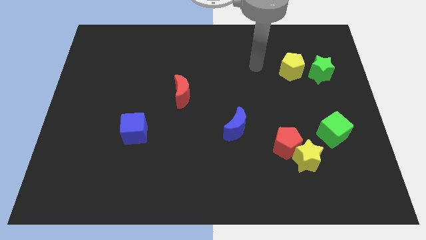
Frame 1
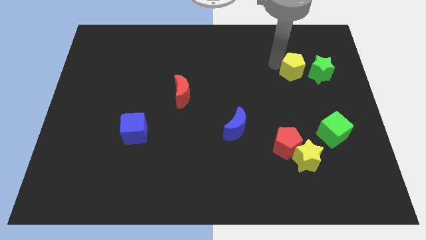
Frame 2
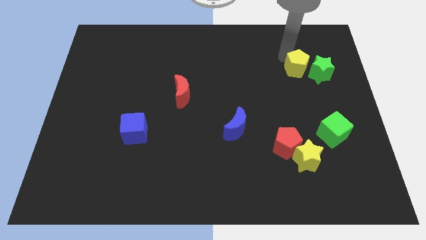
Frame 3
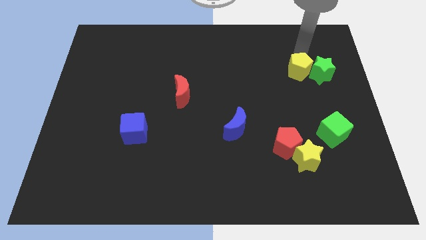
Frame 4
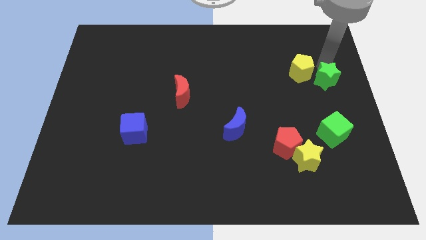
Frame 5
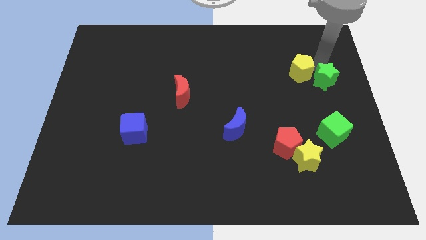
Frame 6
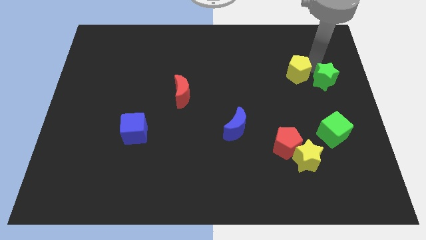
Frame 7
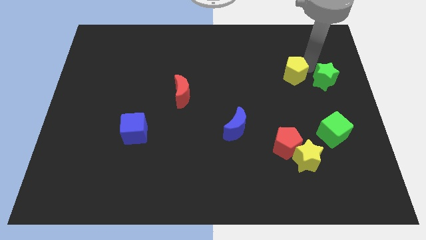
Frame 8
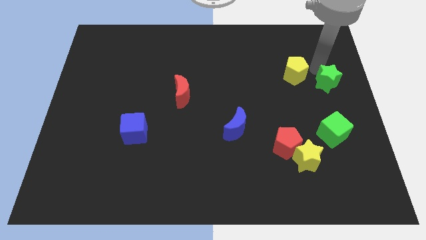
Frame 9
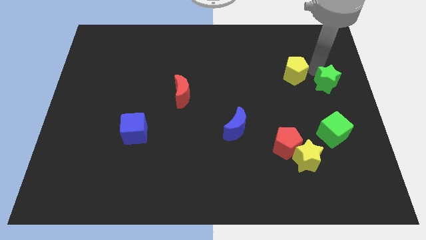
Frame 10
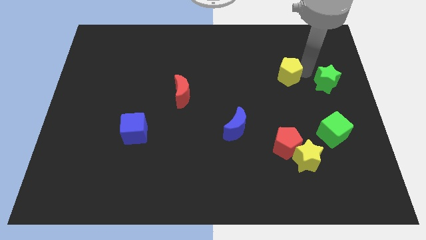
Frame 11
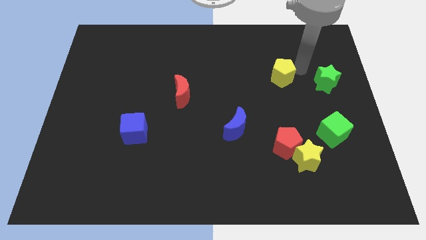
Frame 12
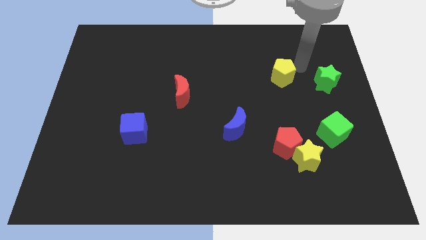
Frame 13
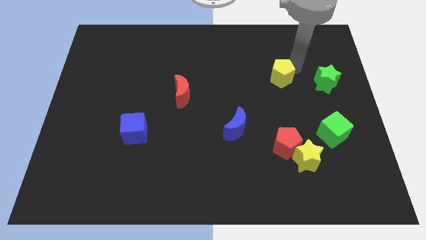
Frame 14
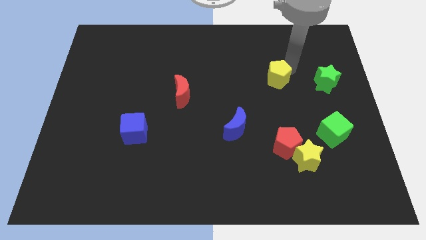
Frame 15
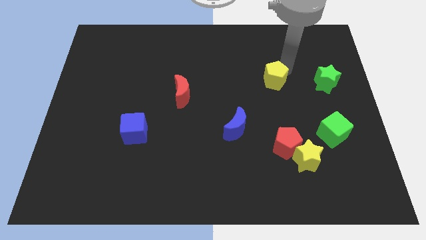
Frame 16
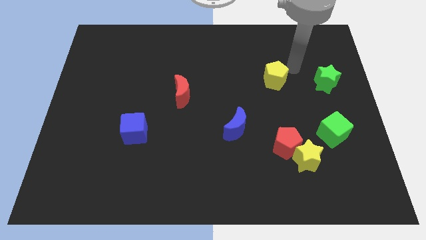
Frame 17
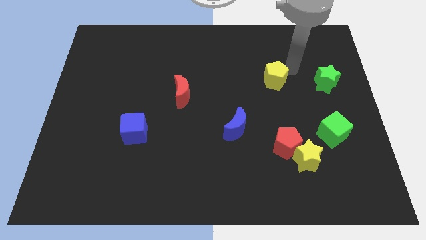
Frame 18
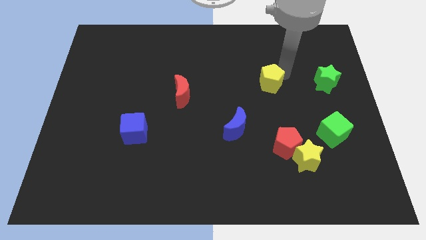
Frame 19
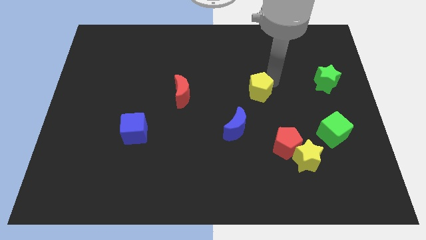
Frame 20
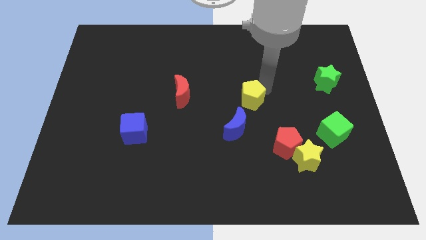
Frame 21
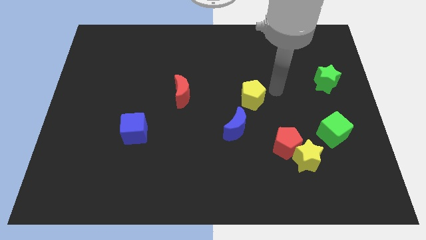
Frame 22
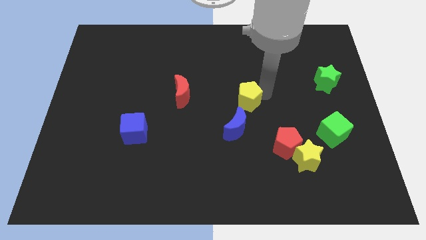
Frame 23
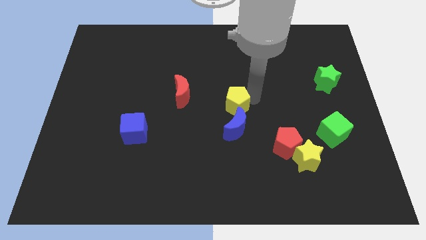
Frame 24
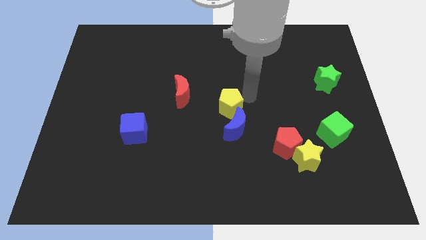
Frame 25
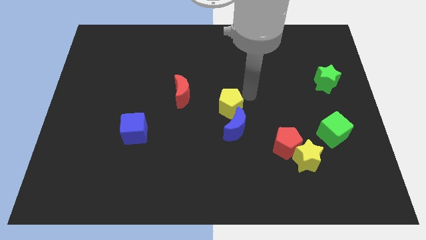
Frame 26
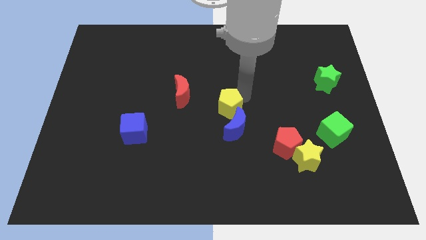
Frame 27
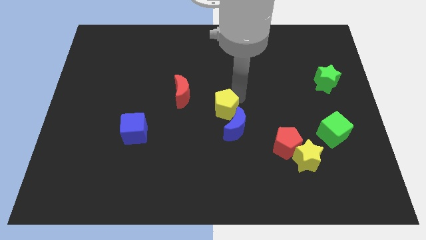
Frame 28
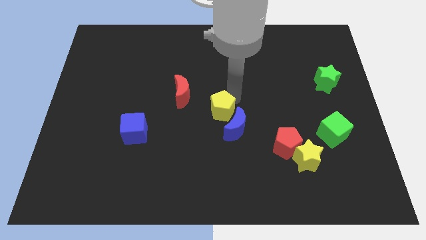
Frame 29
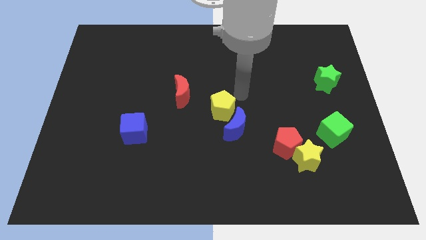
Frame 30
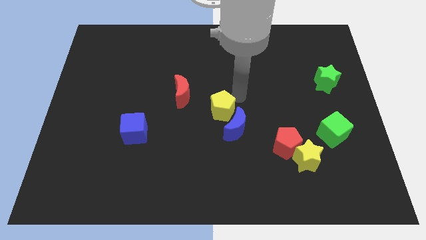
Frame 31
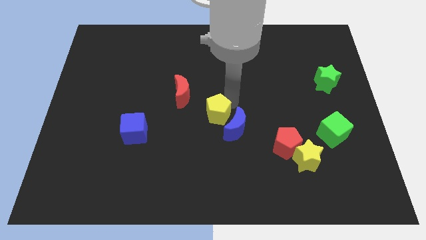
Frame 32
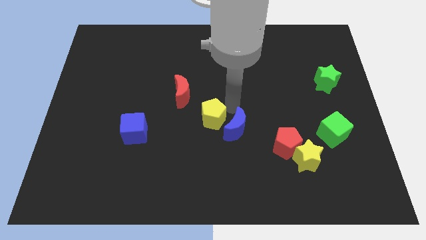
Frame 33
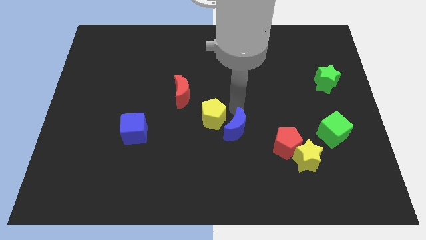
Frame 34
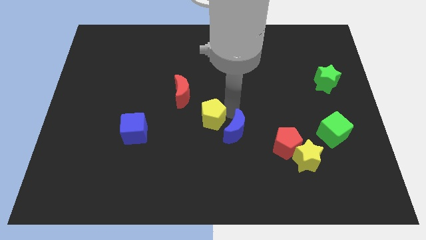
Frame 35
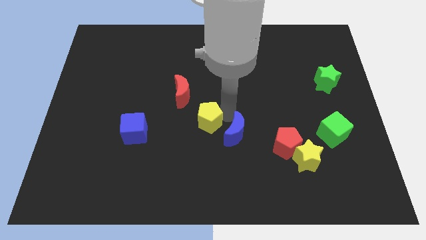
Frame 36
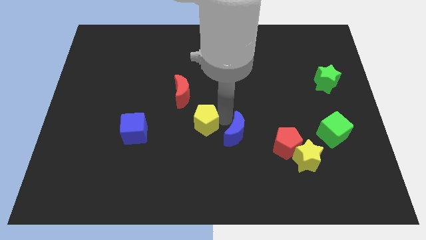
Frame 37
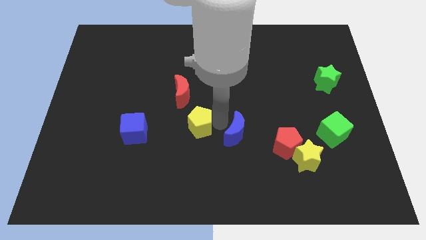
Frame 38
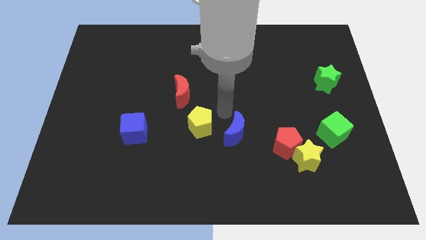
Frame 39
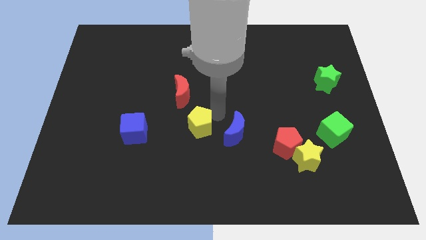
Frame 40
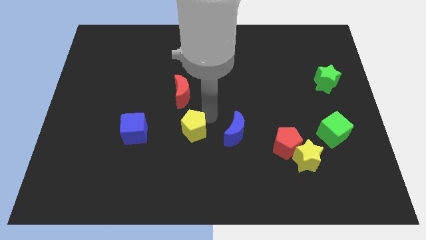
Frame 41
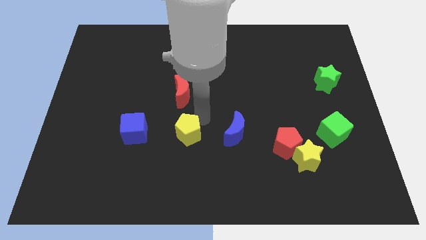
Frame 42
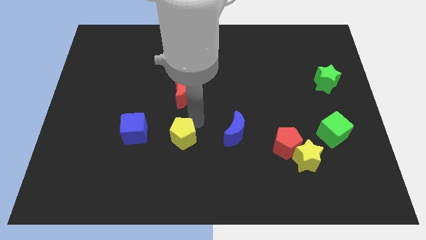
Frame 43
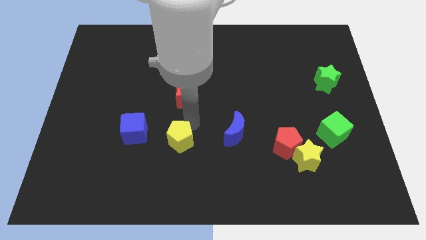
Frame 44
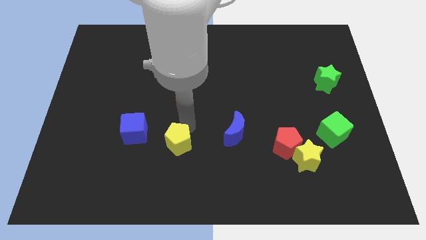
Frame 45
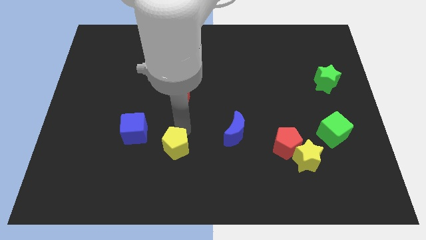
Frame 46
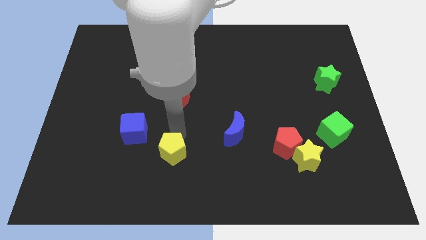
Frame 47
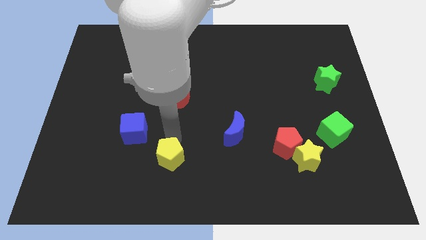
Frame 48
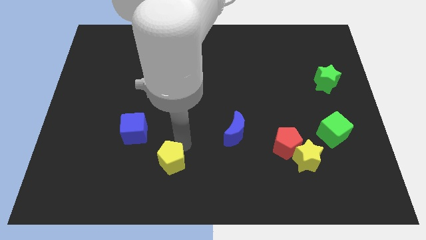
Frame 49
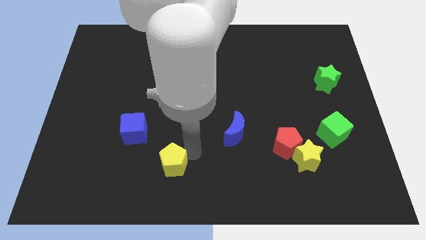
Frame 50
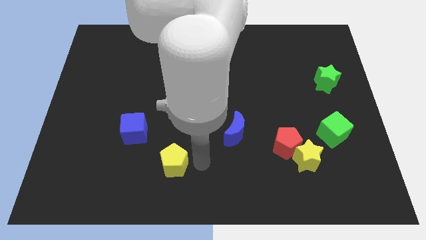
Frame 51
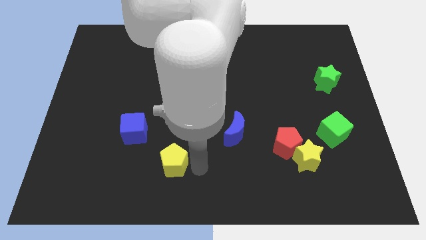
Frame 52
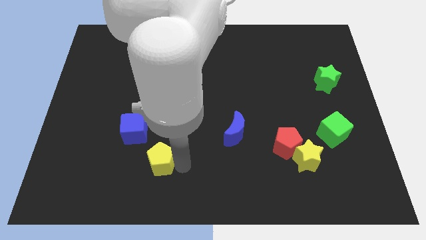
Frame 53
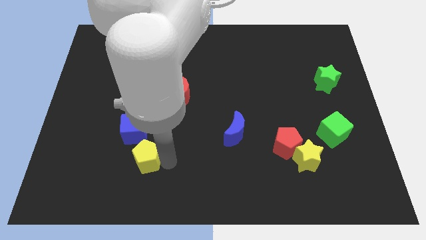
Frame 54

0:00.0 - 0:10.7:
push the yellow pentagon to the bottom of the blue cube

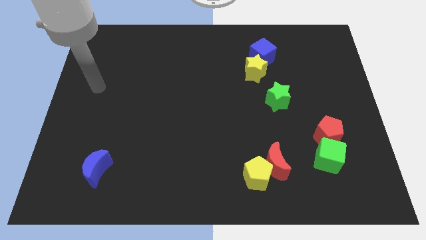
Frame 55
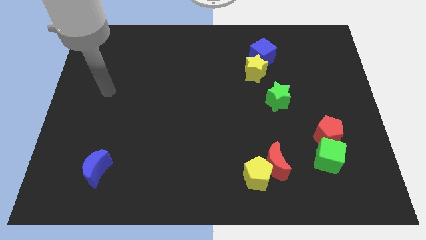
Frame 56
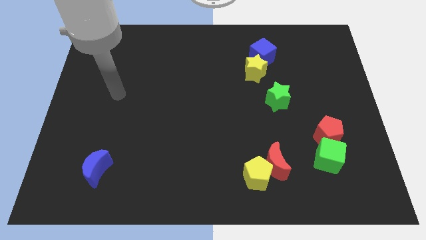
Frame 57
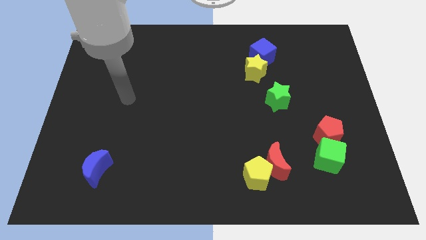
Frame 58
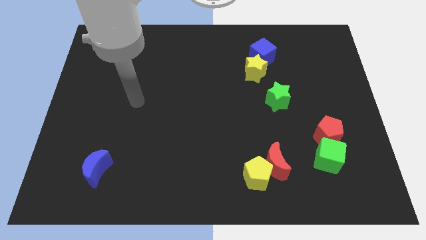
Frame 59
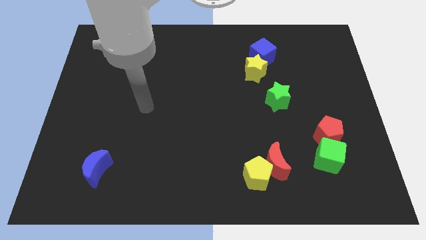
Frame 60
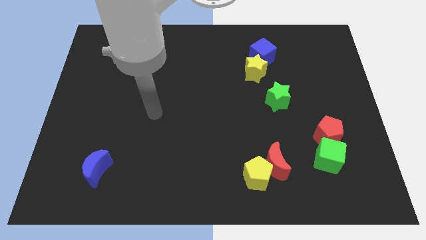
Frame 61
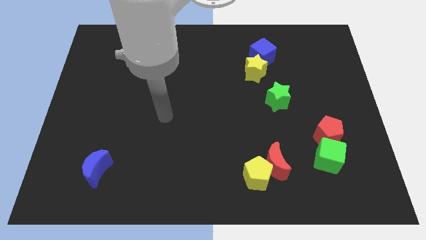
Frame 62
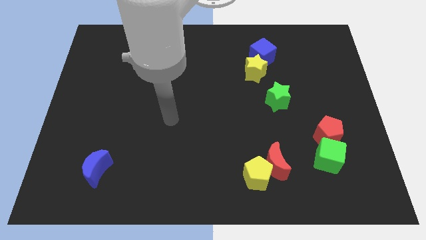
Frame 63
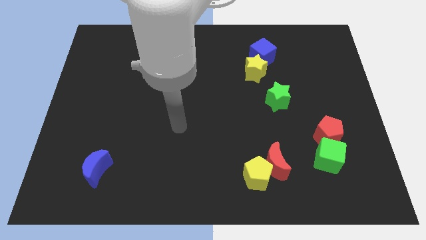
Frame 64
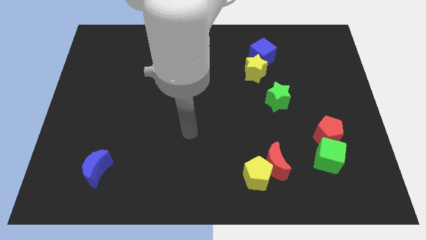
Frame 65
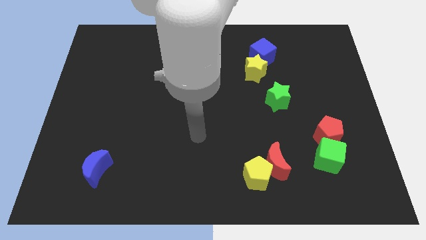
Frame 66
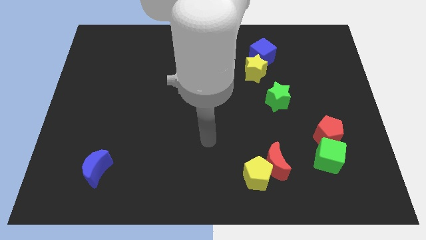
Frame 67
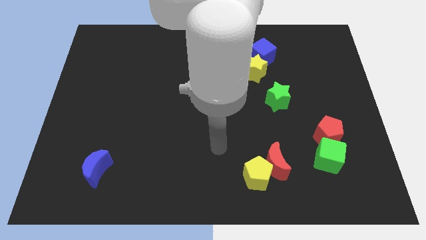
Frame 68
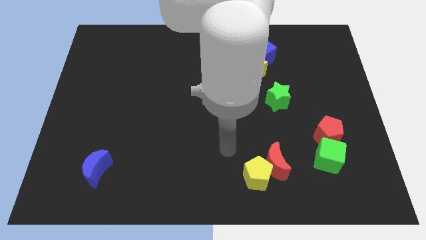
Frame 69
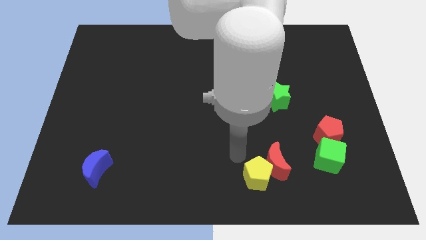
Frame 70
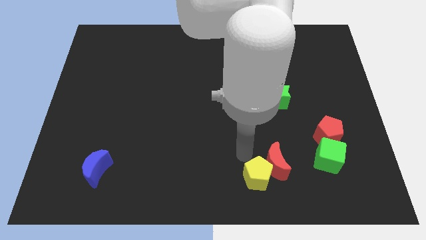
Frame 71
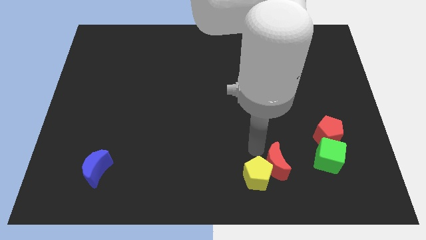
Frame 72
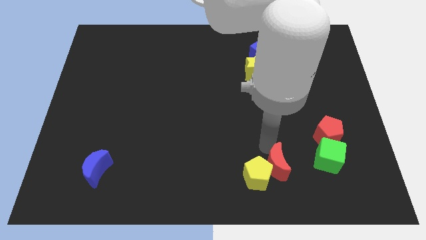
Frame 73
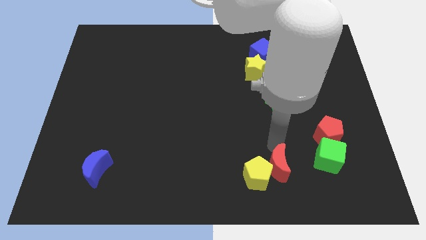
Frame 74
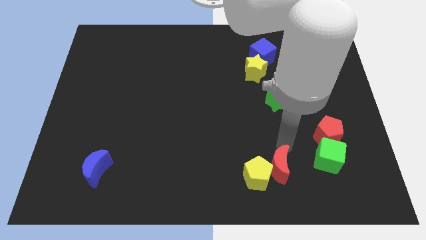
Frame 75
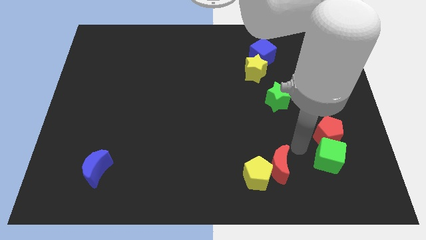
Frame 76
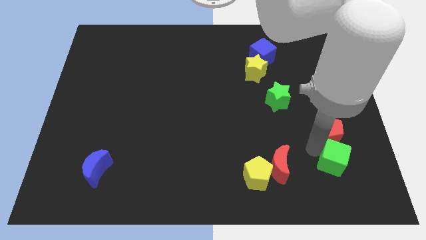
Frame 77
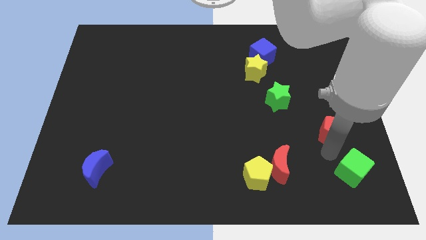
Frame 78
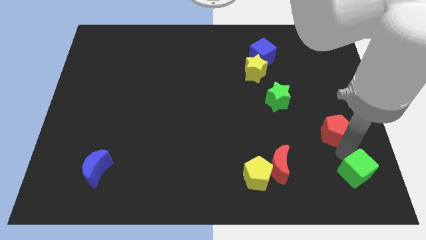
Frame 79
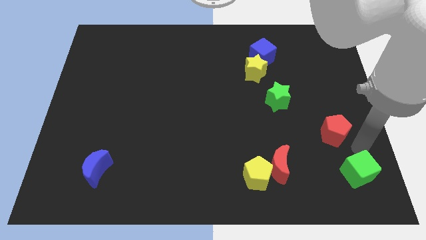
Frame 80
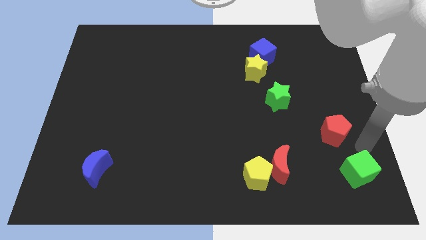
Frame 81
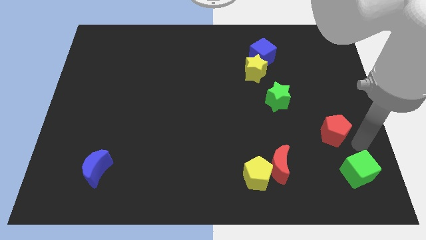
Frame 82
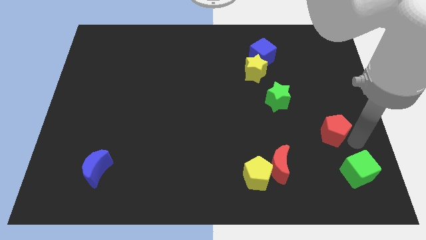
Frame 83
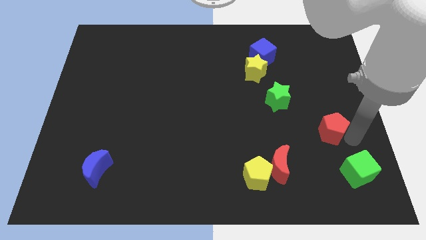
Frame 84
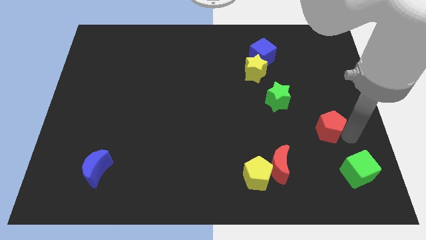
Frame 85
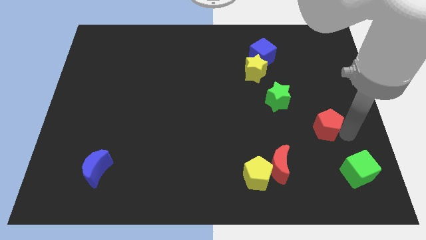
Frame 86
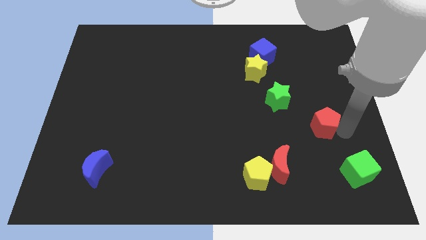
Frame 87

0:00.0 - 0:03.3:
move the red pentagon diagonally down and to the right of the green star
